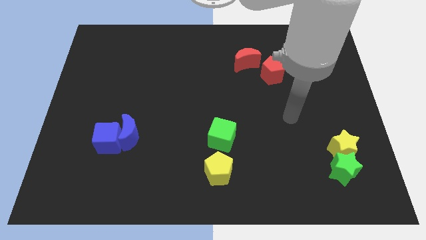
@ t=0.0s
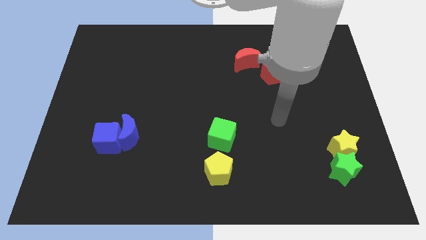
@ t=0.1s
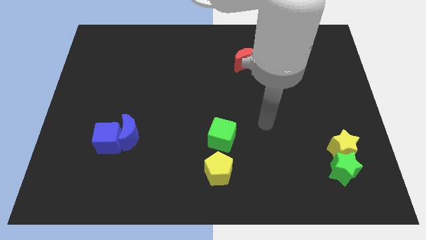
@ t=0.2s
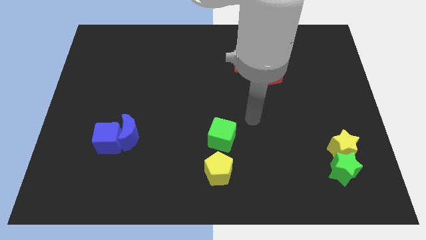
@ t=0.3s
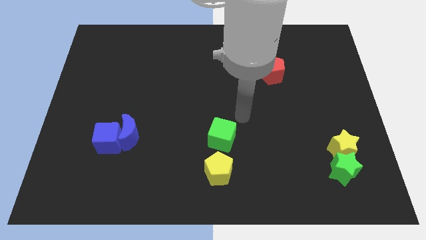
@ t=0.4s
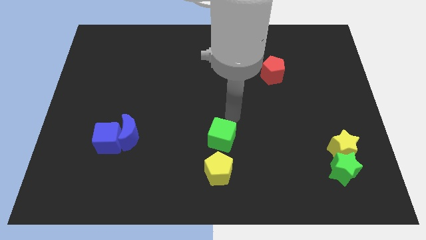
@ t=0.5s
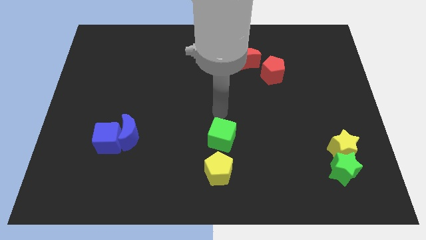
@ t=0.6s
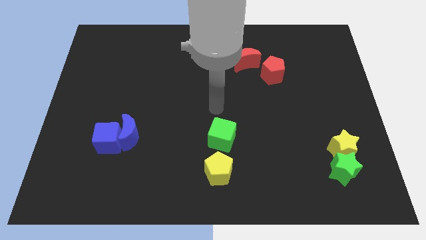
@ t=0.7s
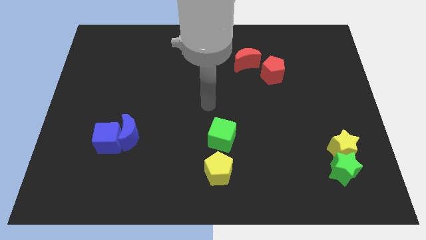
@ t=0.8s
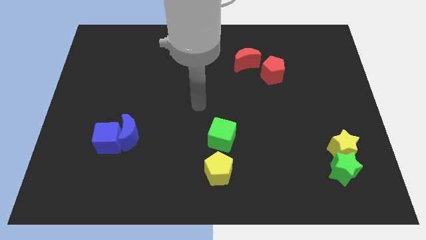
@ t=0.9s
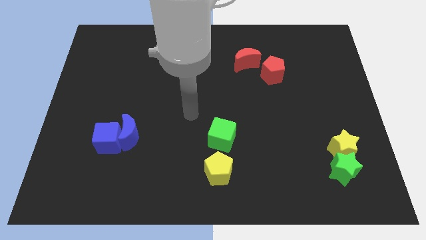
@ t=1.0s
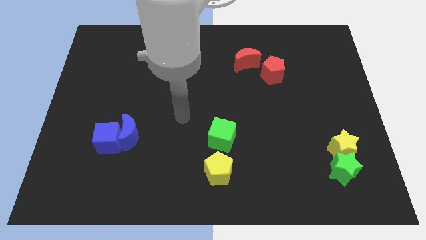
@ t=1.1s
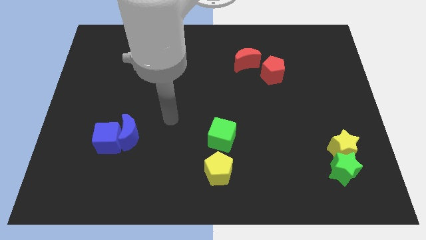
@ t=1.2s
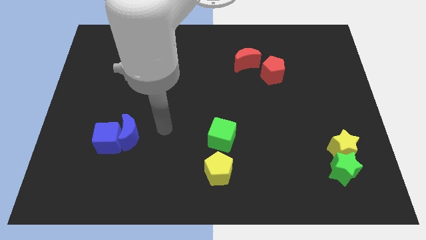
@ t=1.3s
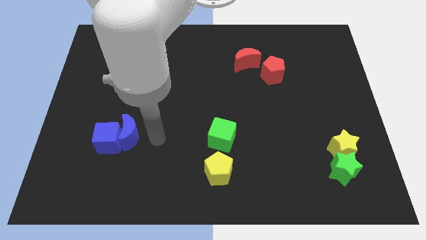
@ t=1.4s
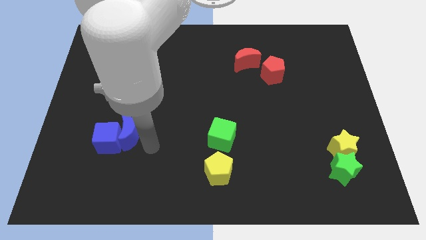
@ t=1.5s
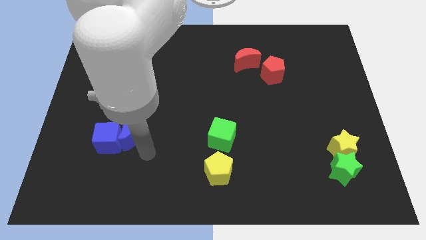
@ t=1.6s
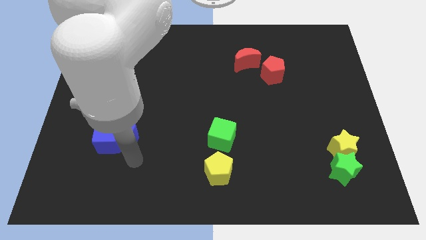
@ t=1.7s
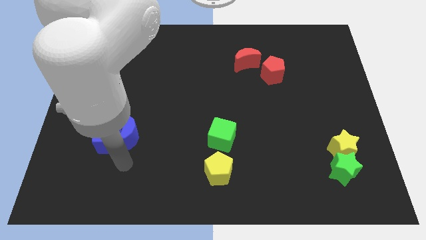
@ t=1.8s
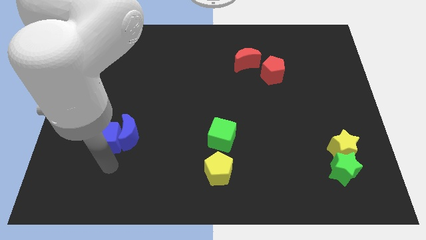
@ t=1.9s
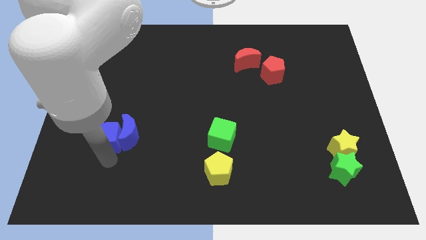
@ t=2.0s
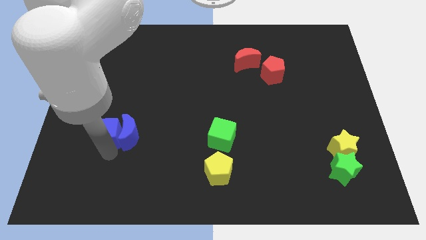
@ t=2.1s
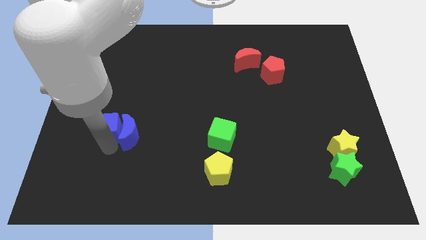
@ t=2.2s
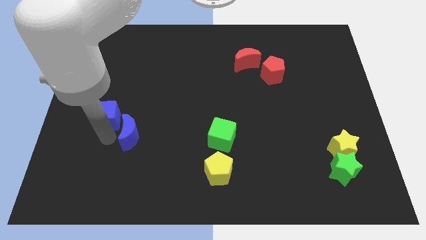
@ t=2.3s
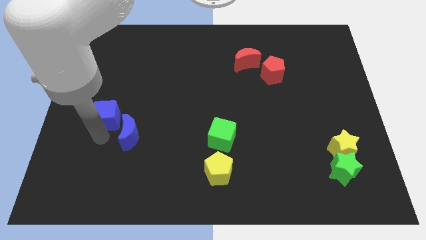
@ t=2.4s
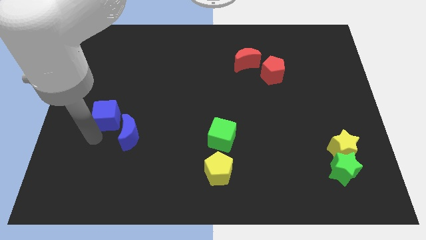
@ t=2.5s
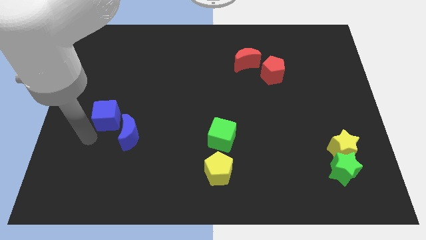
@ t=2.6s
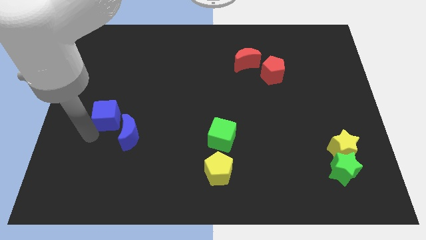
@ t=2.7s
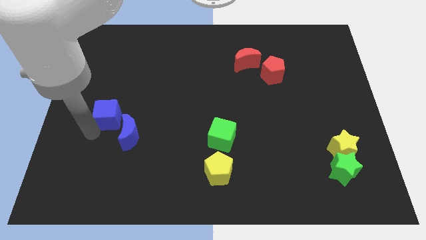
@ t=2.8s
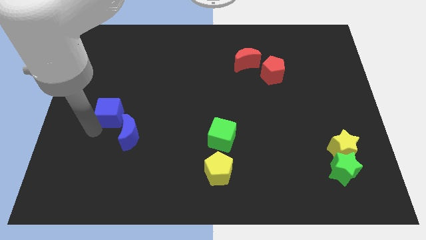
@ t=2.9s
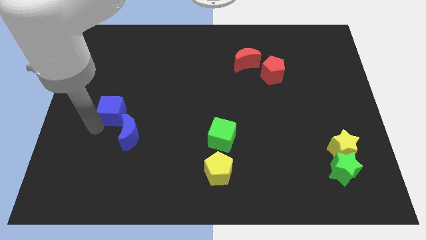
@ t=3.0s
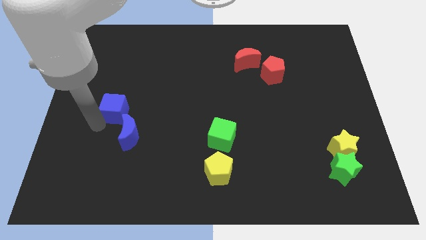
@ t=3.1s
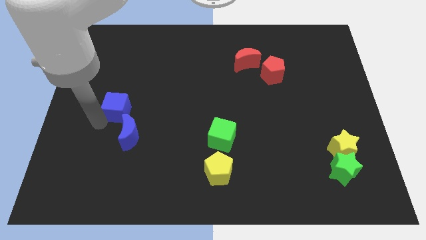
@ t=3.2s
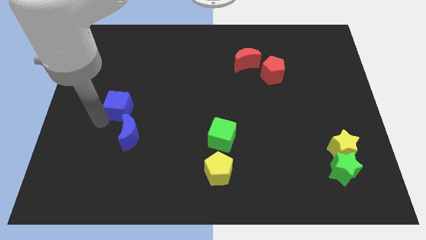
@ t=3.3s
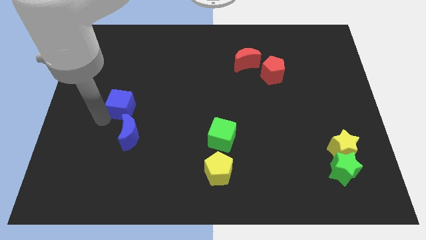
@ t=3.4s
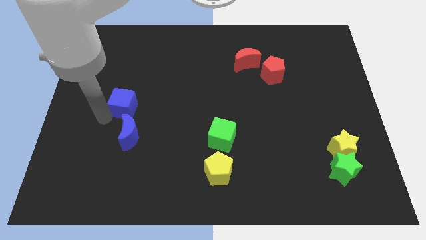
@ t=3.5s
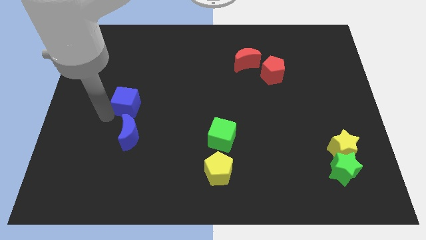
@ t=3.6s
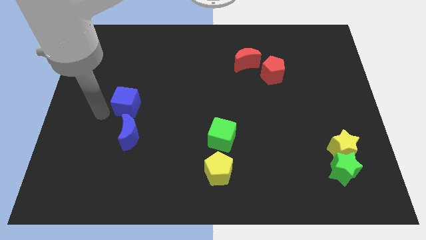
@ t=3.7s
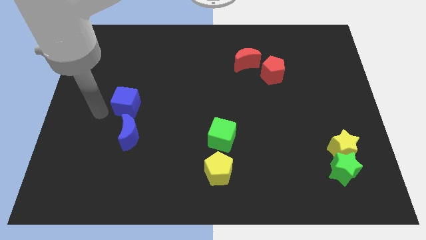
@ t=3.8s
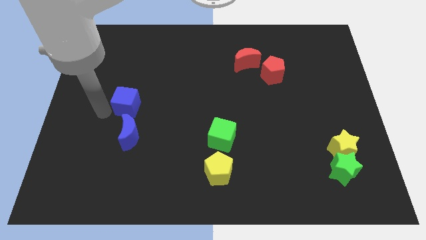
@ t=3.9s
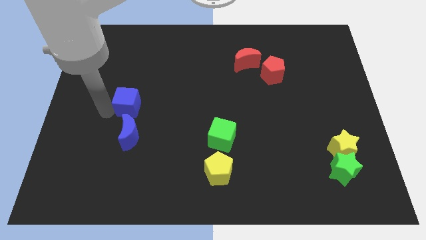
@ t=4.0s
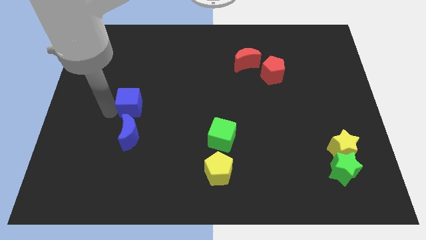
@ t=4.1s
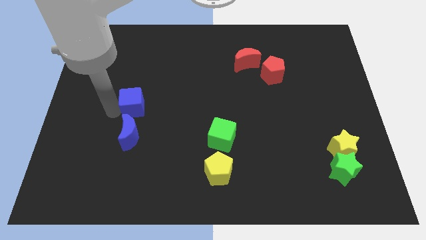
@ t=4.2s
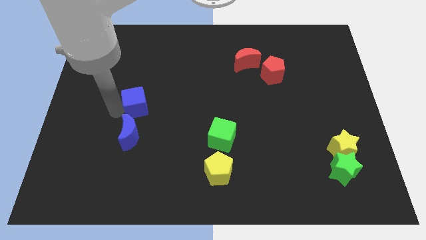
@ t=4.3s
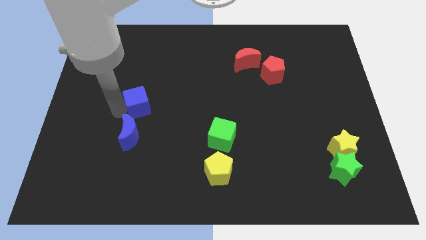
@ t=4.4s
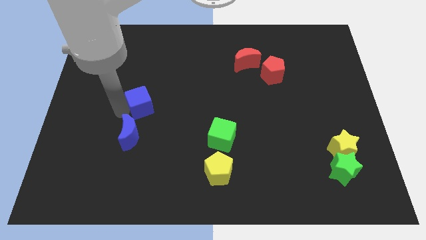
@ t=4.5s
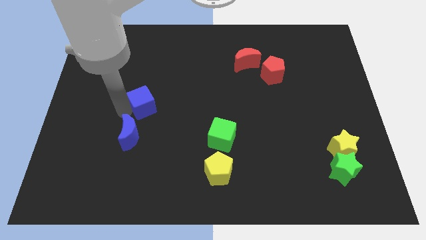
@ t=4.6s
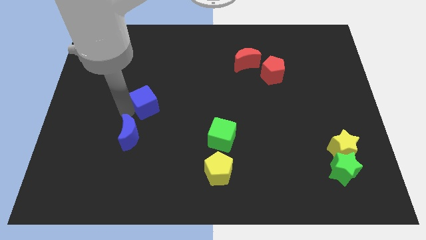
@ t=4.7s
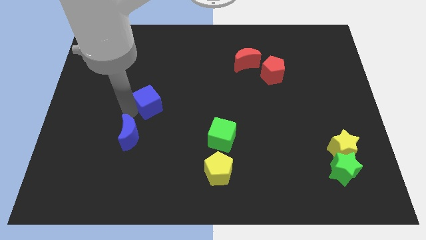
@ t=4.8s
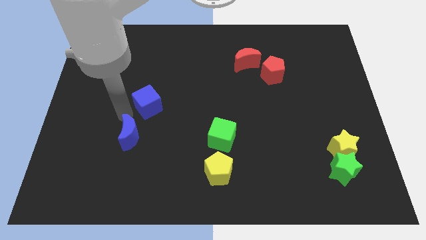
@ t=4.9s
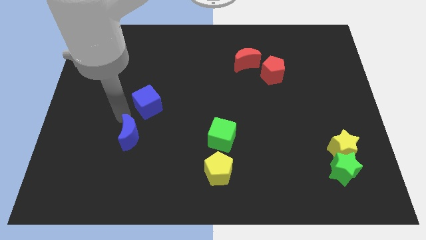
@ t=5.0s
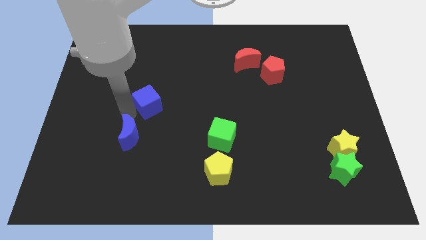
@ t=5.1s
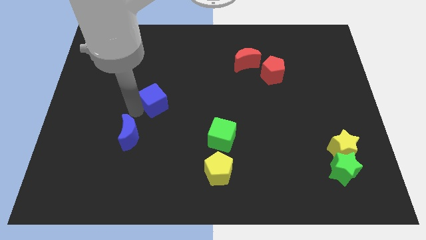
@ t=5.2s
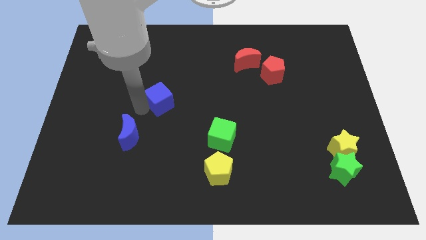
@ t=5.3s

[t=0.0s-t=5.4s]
put the blue cube to the middle of the board

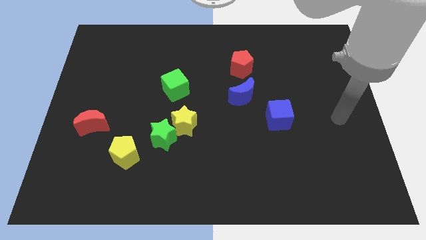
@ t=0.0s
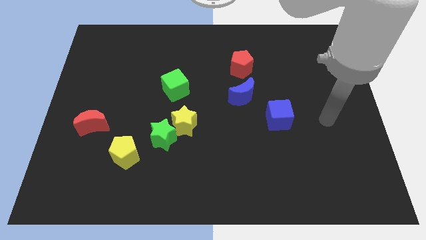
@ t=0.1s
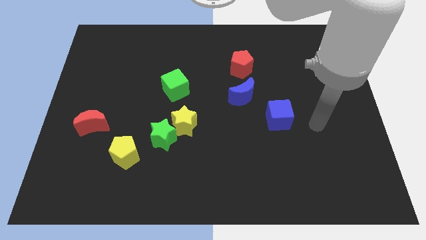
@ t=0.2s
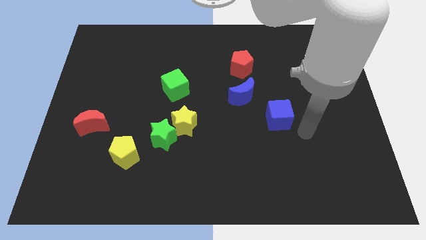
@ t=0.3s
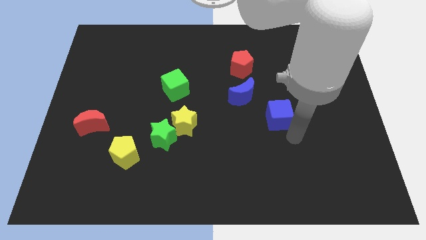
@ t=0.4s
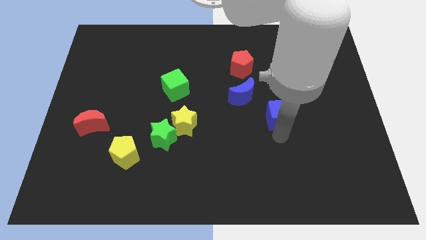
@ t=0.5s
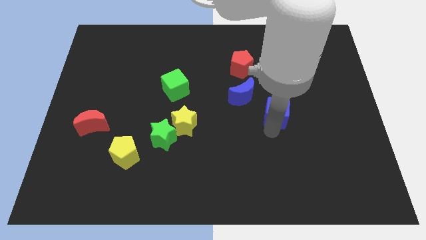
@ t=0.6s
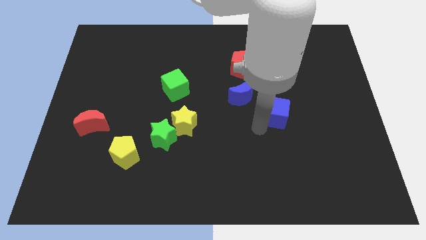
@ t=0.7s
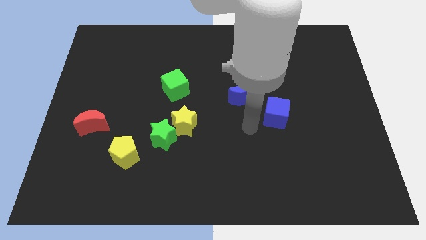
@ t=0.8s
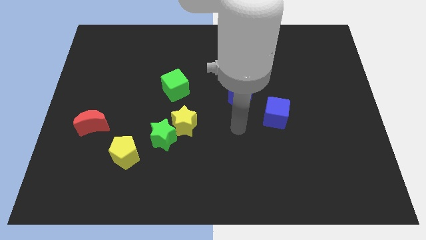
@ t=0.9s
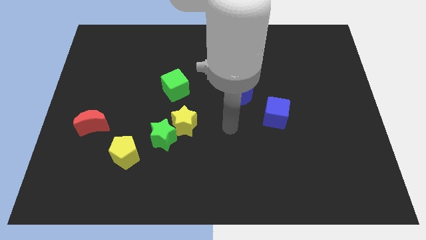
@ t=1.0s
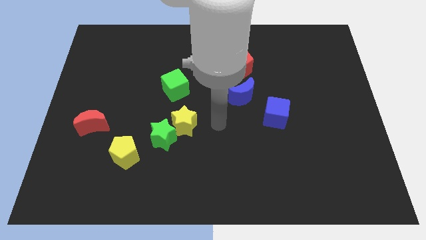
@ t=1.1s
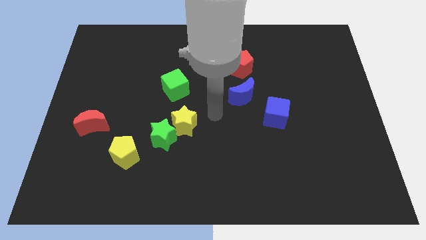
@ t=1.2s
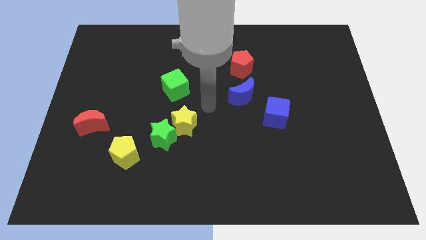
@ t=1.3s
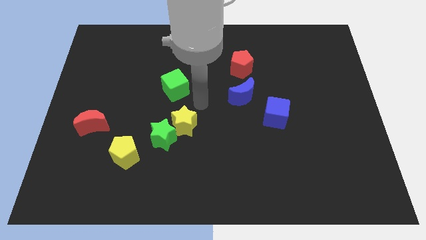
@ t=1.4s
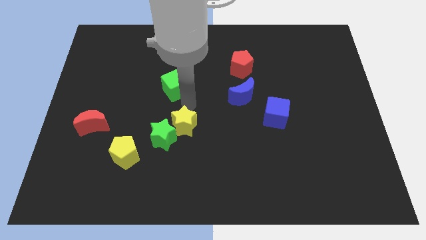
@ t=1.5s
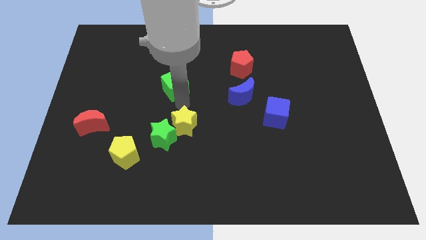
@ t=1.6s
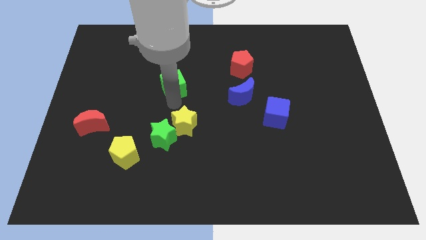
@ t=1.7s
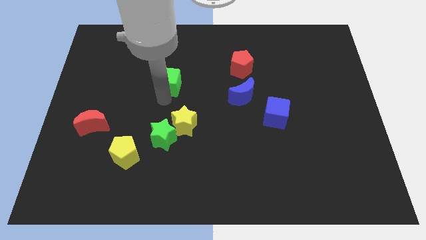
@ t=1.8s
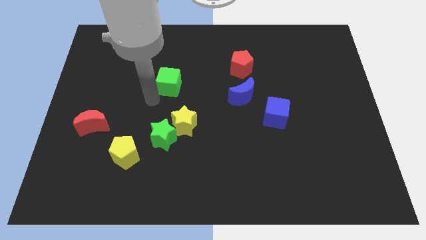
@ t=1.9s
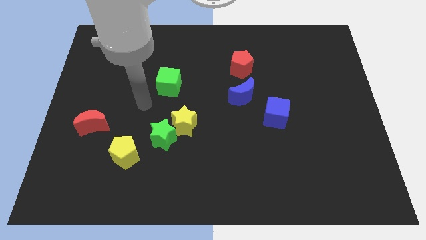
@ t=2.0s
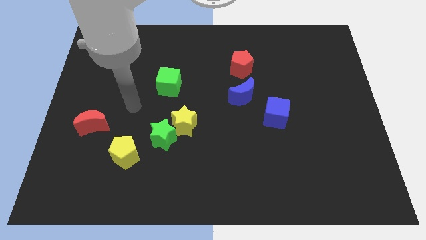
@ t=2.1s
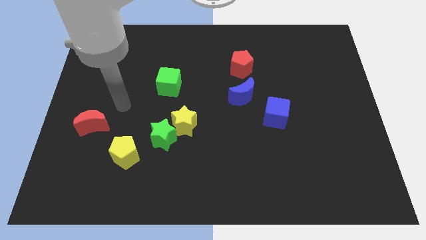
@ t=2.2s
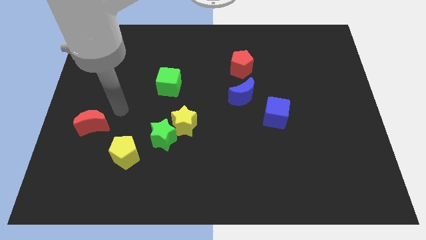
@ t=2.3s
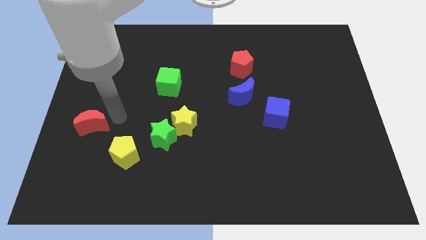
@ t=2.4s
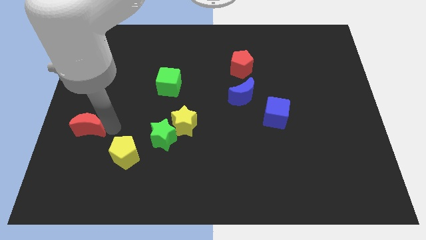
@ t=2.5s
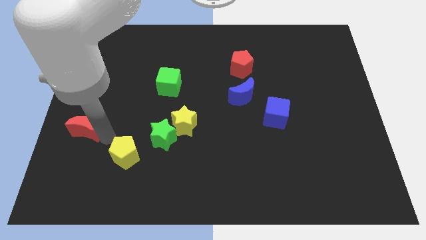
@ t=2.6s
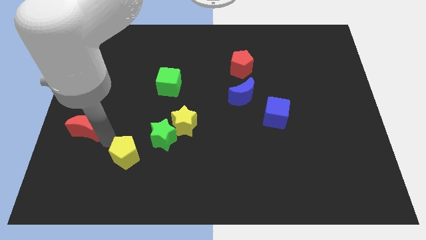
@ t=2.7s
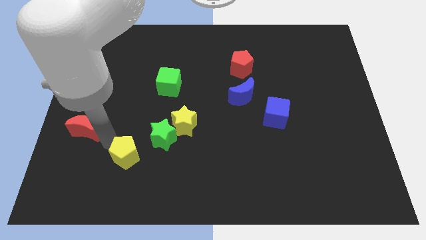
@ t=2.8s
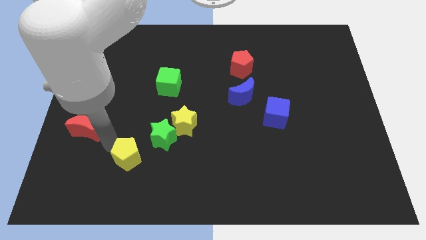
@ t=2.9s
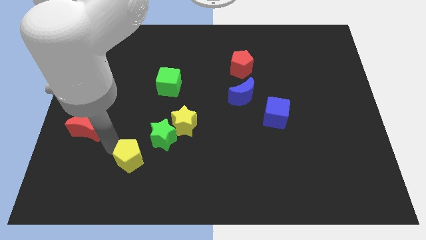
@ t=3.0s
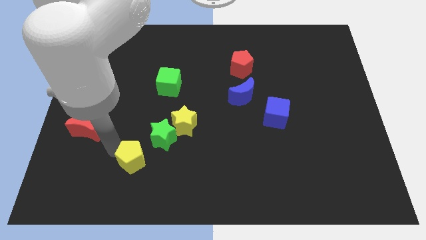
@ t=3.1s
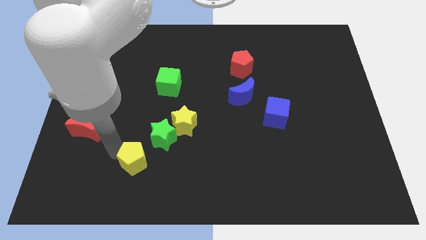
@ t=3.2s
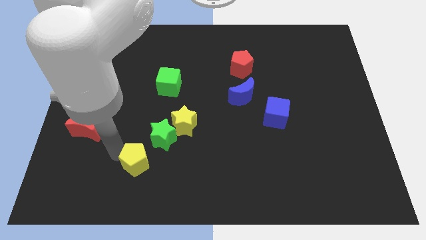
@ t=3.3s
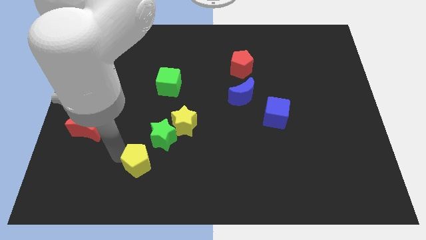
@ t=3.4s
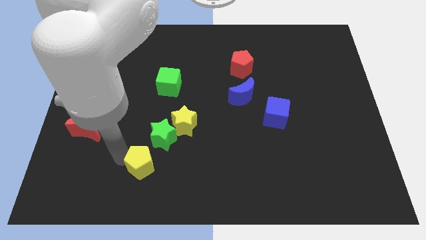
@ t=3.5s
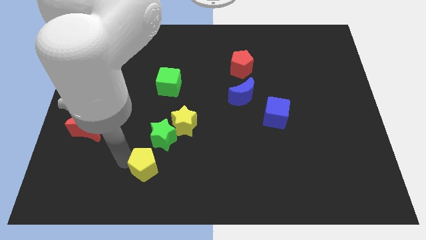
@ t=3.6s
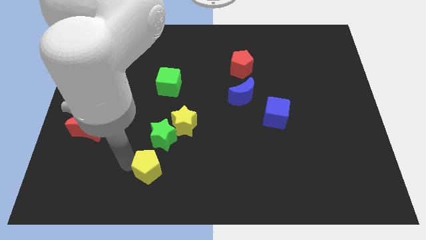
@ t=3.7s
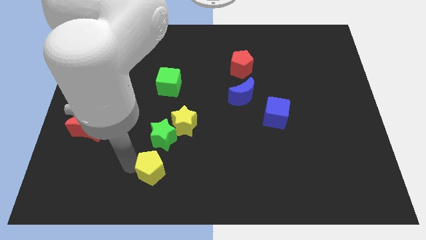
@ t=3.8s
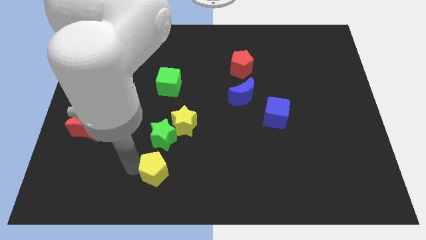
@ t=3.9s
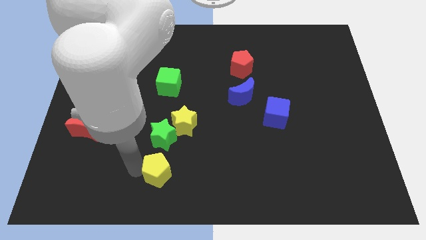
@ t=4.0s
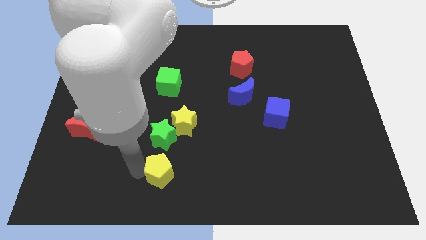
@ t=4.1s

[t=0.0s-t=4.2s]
slide the yellow pentagon to the bottom
